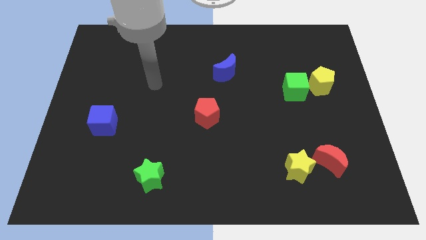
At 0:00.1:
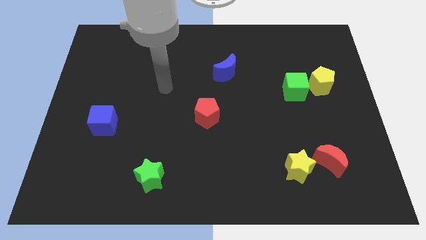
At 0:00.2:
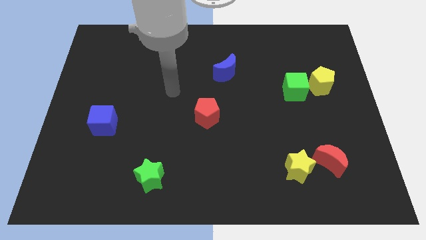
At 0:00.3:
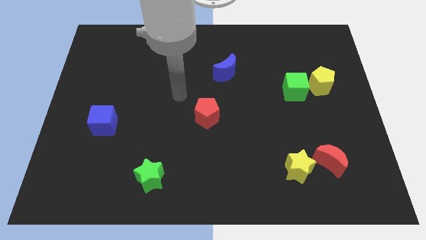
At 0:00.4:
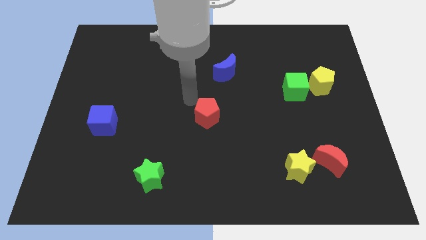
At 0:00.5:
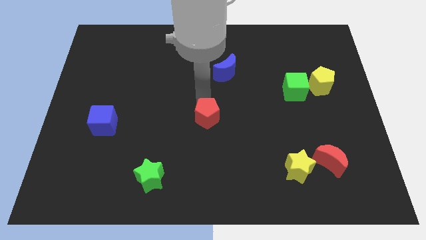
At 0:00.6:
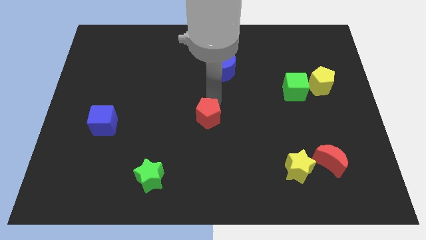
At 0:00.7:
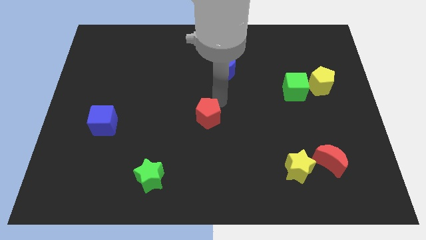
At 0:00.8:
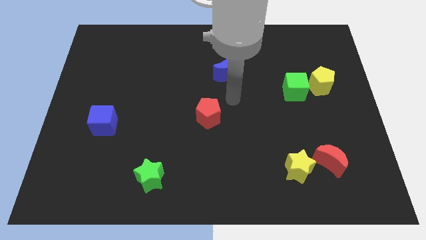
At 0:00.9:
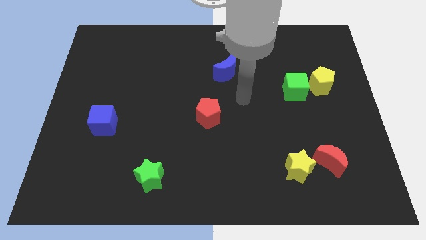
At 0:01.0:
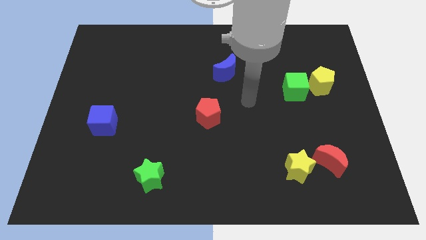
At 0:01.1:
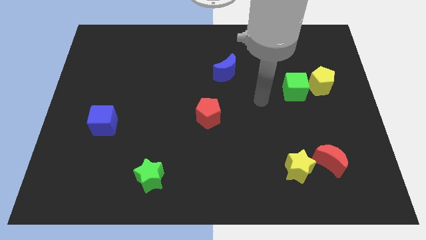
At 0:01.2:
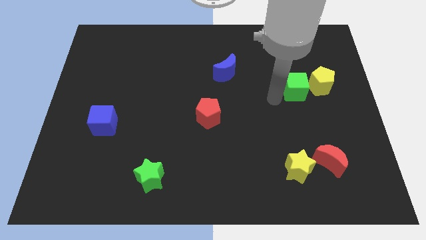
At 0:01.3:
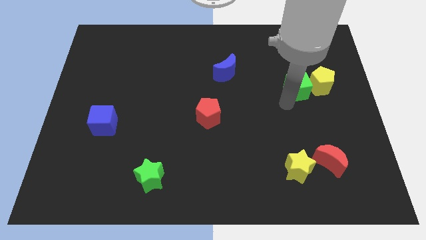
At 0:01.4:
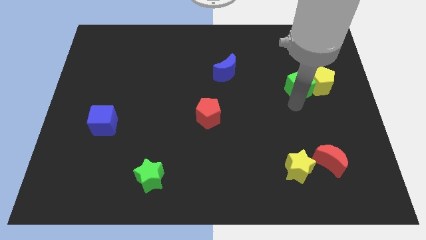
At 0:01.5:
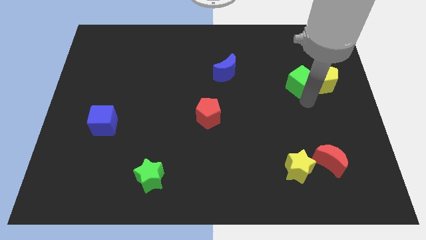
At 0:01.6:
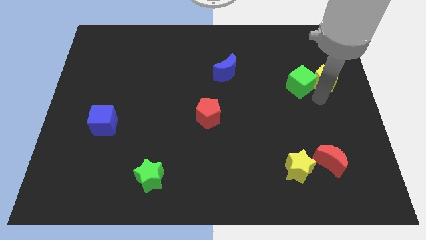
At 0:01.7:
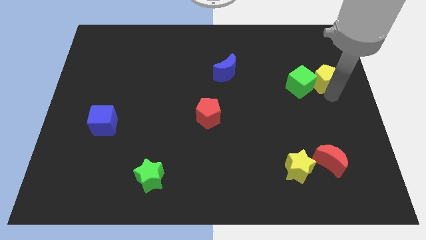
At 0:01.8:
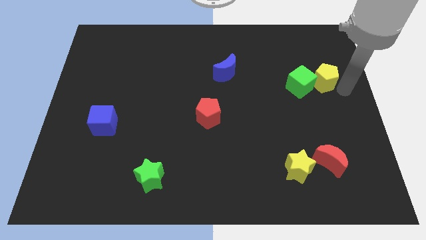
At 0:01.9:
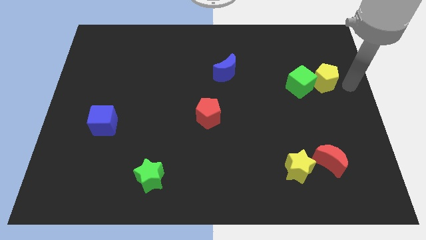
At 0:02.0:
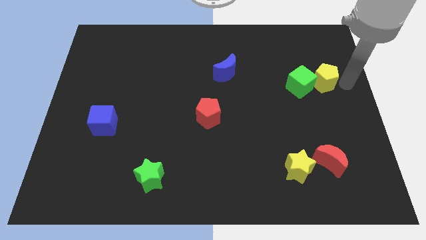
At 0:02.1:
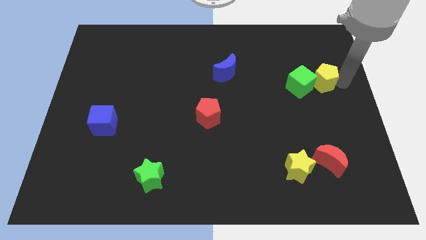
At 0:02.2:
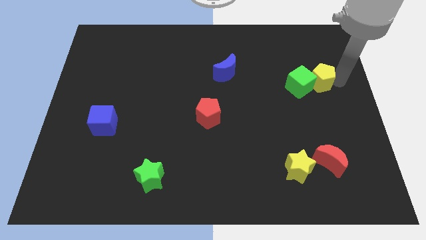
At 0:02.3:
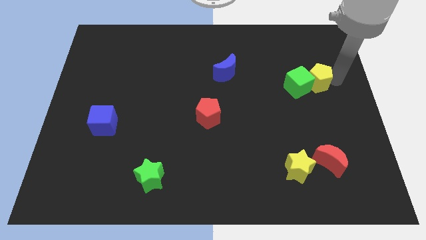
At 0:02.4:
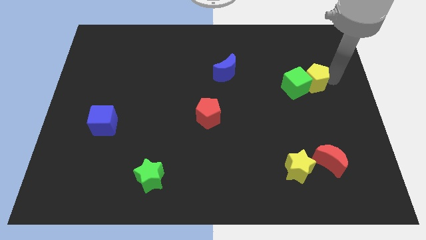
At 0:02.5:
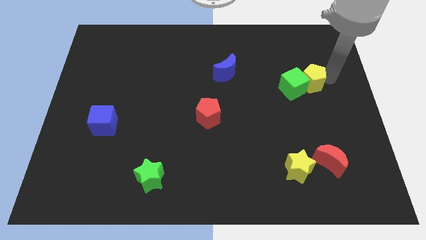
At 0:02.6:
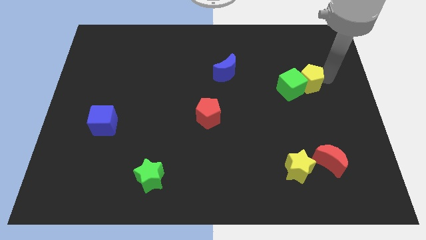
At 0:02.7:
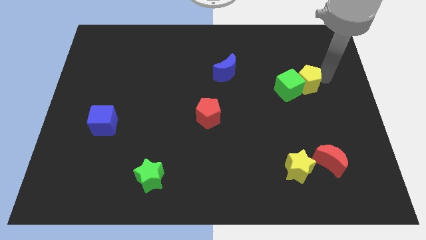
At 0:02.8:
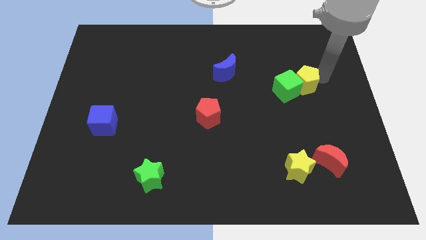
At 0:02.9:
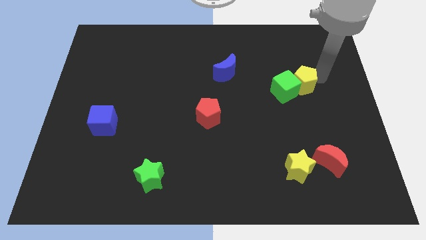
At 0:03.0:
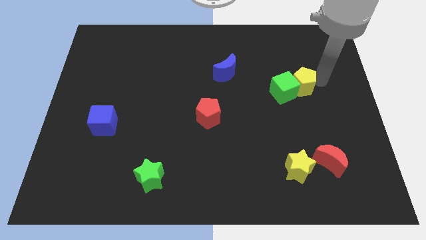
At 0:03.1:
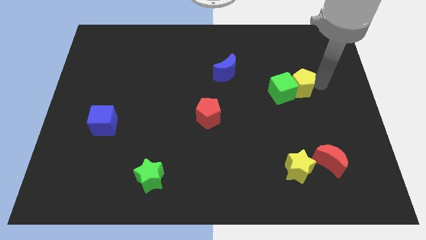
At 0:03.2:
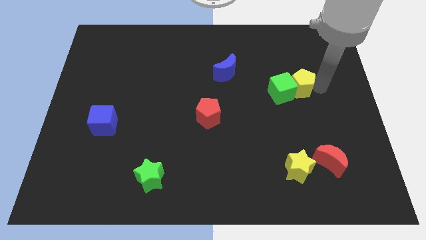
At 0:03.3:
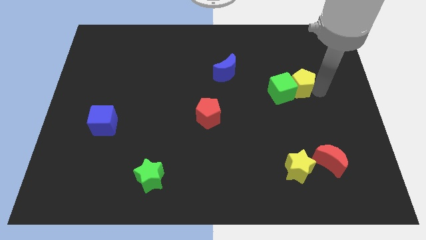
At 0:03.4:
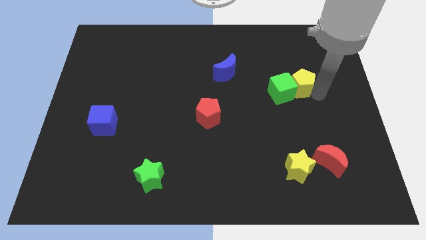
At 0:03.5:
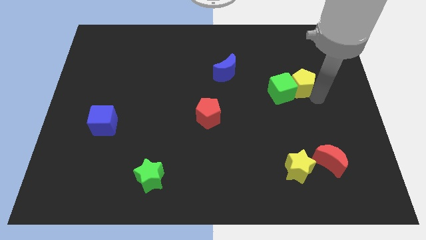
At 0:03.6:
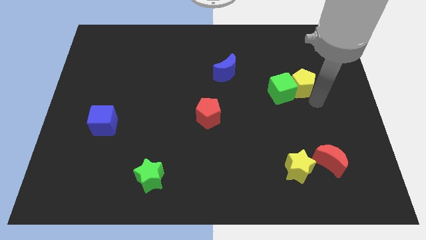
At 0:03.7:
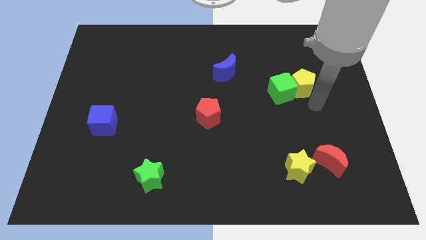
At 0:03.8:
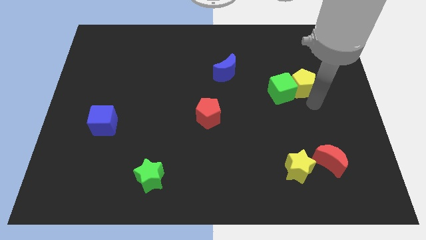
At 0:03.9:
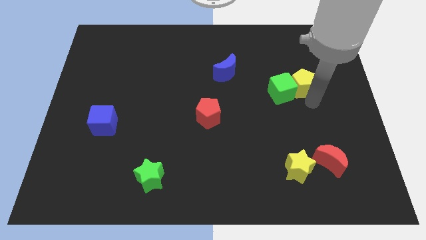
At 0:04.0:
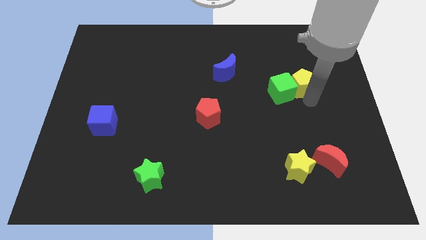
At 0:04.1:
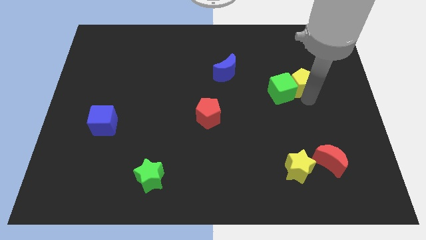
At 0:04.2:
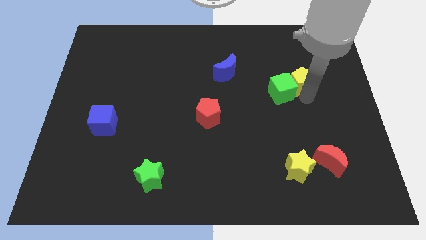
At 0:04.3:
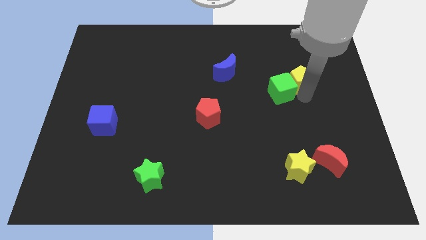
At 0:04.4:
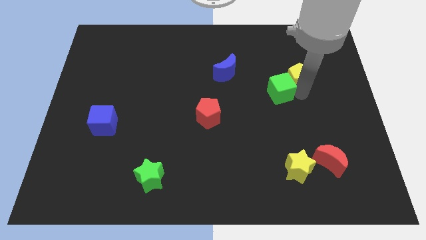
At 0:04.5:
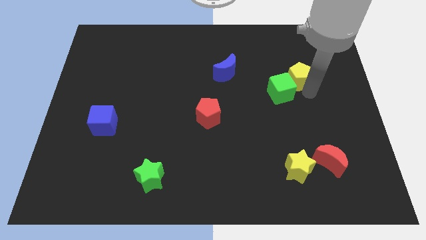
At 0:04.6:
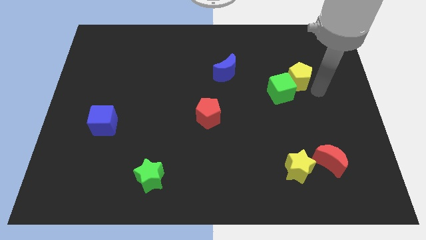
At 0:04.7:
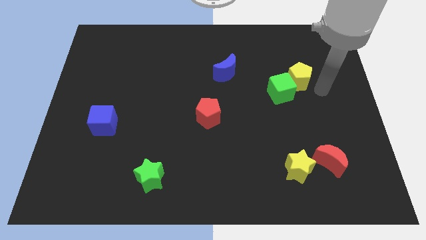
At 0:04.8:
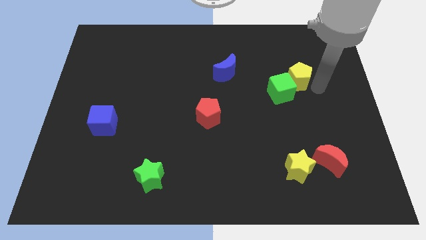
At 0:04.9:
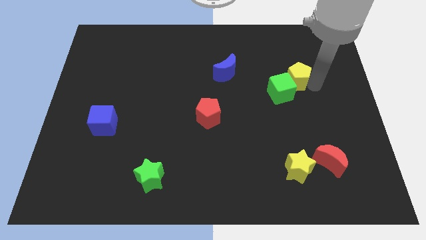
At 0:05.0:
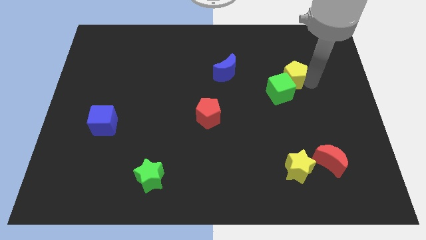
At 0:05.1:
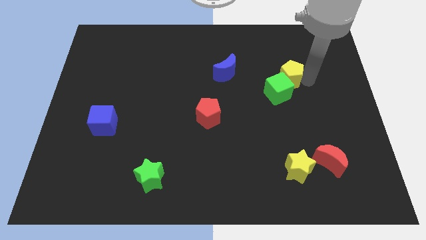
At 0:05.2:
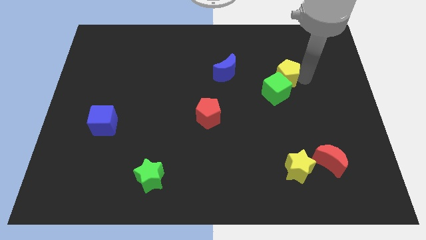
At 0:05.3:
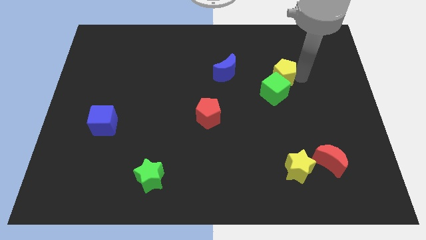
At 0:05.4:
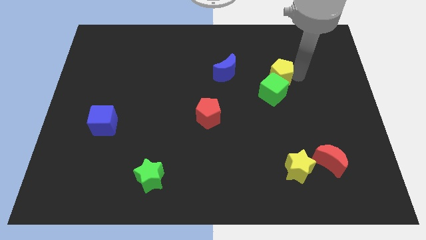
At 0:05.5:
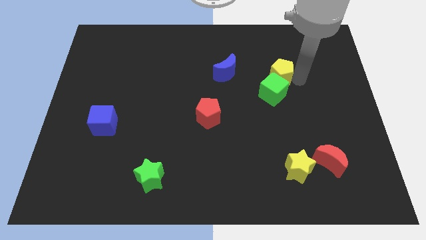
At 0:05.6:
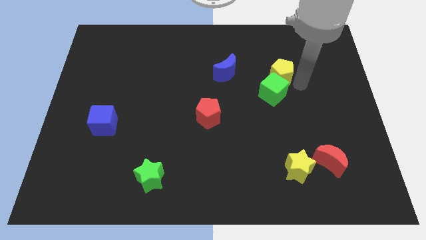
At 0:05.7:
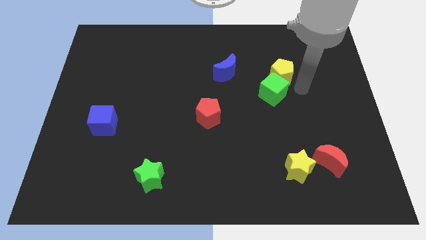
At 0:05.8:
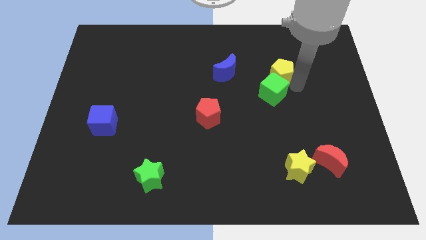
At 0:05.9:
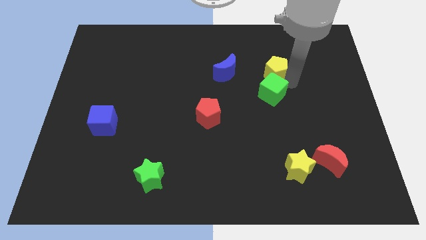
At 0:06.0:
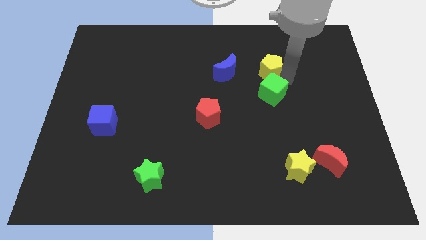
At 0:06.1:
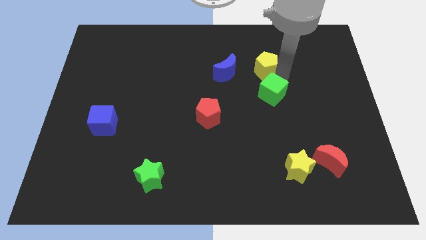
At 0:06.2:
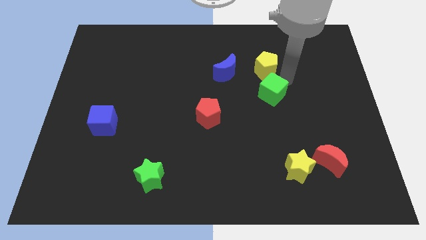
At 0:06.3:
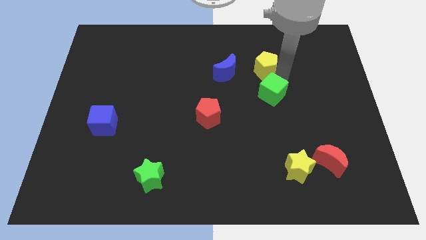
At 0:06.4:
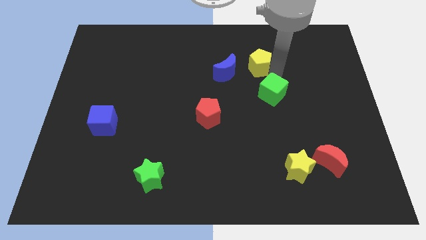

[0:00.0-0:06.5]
move the yellow pentagon diagonally up and to the right of the blue moon

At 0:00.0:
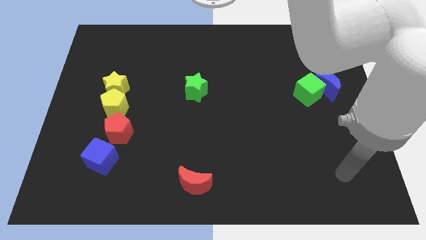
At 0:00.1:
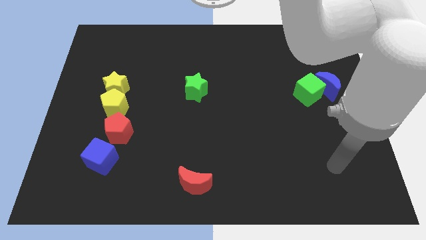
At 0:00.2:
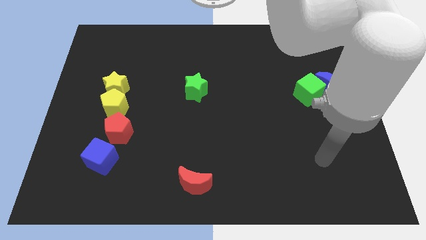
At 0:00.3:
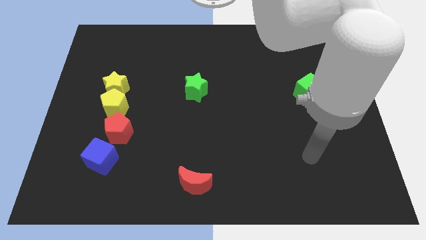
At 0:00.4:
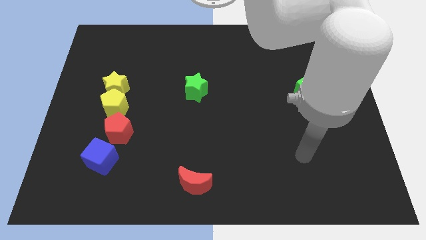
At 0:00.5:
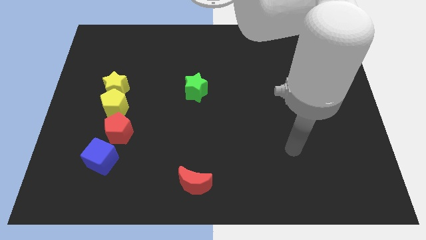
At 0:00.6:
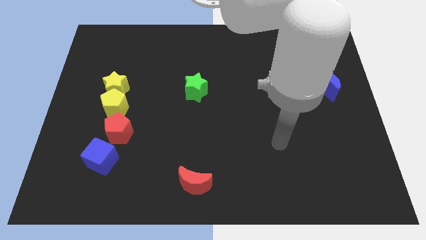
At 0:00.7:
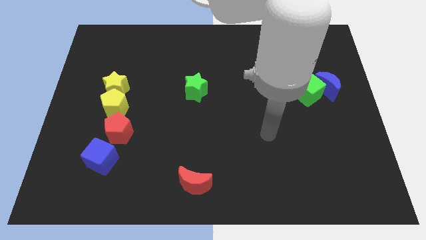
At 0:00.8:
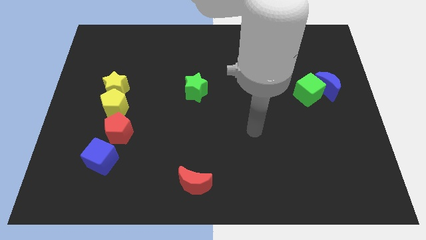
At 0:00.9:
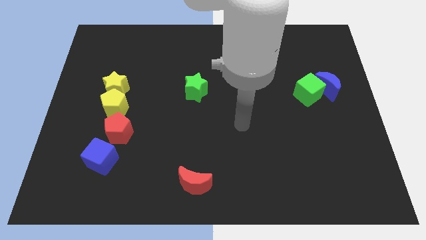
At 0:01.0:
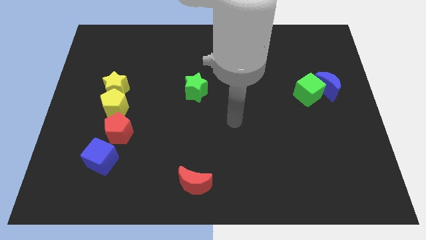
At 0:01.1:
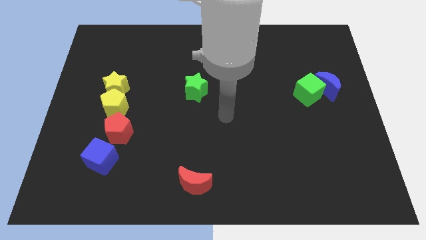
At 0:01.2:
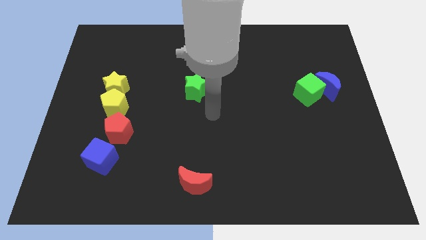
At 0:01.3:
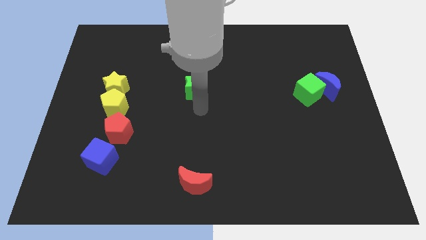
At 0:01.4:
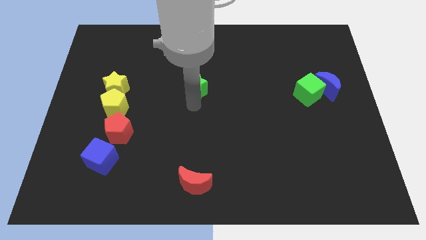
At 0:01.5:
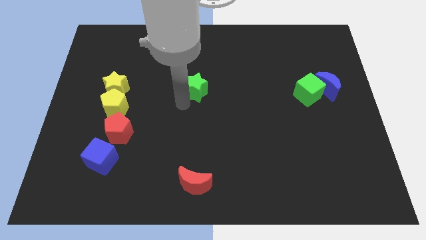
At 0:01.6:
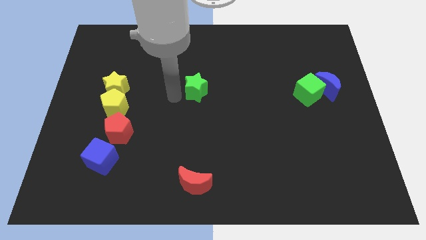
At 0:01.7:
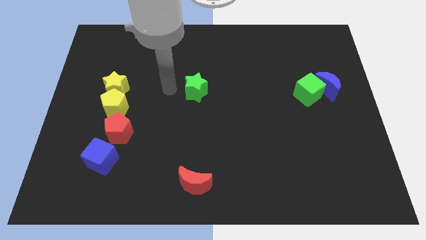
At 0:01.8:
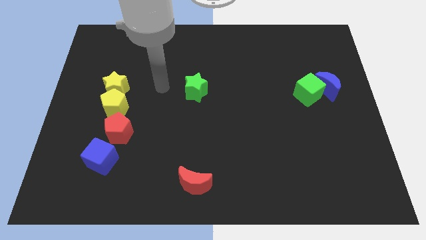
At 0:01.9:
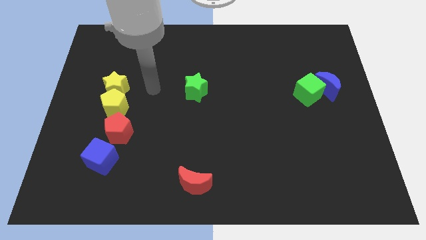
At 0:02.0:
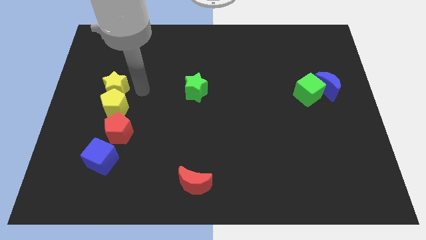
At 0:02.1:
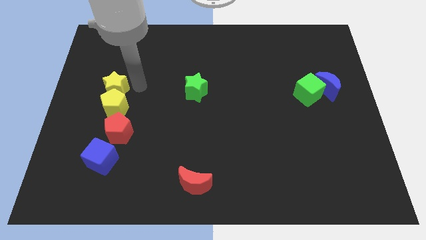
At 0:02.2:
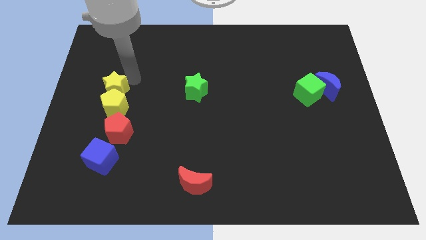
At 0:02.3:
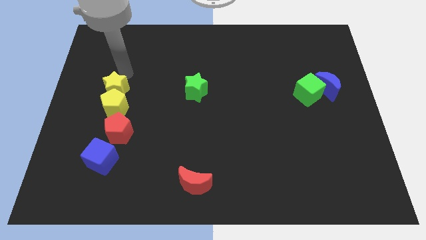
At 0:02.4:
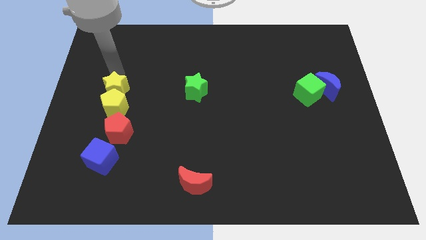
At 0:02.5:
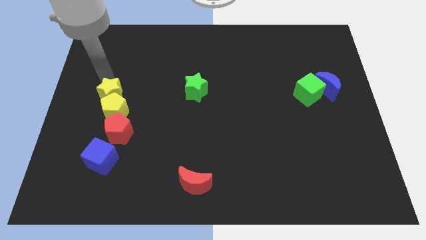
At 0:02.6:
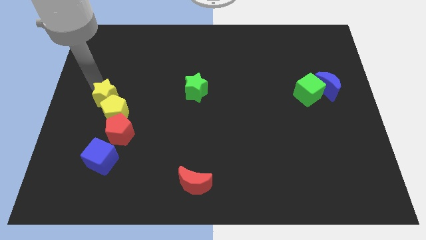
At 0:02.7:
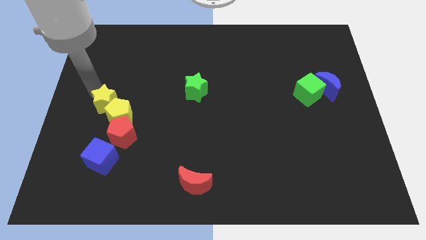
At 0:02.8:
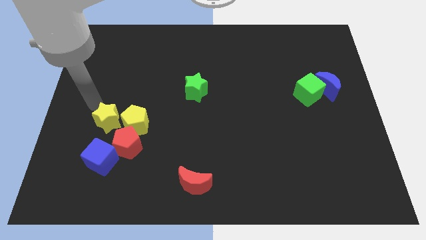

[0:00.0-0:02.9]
put the yellow pentagon diagonally up and to the right of the blue cube
